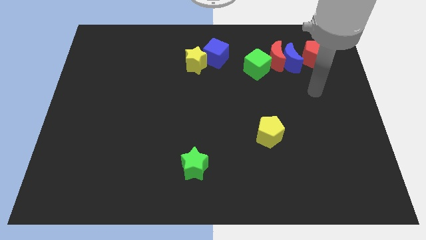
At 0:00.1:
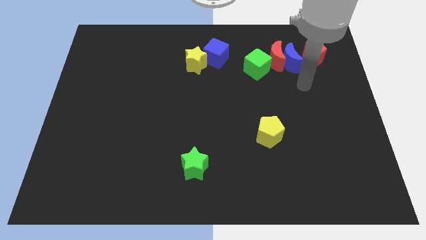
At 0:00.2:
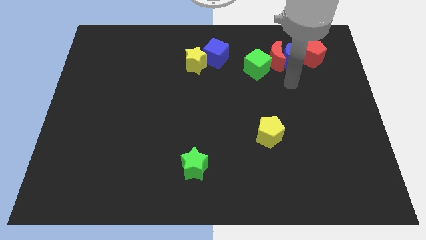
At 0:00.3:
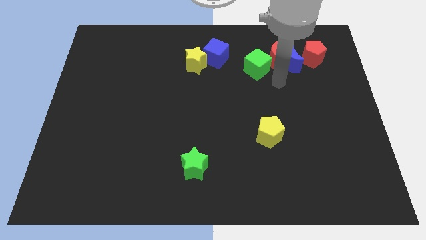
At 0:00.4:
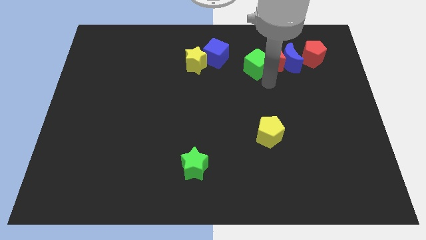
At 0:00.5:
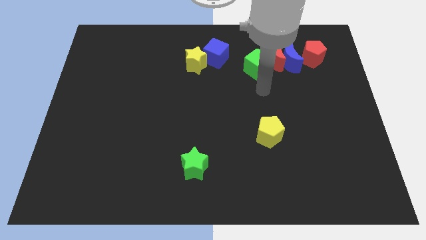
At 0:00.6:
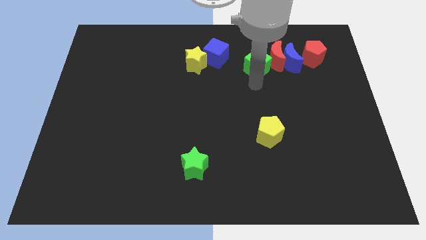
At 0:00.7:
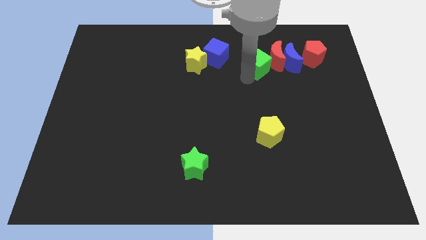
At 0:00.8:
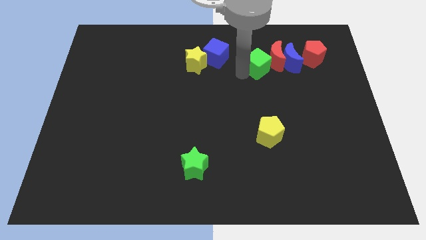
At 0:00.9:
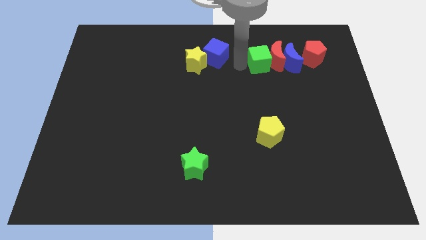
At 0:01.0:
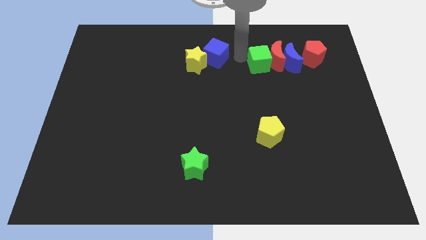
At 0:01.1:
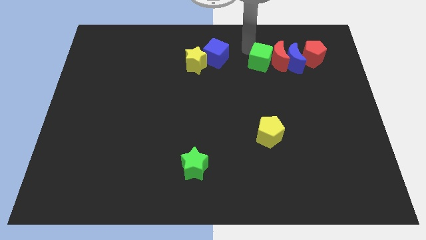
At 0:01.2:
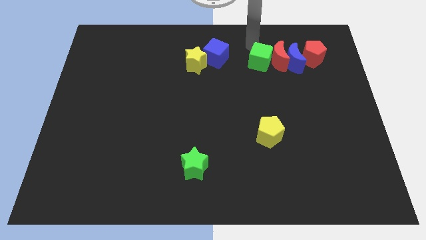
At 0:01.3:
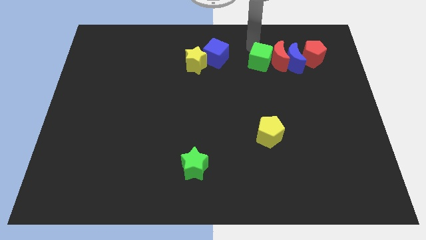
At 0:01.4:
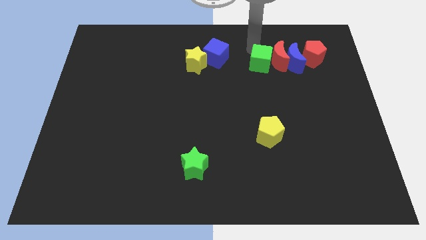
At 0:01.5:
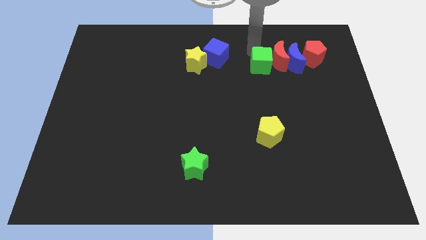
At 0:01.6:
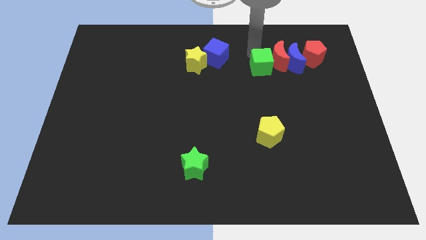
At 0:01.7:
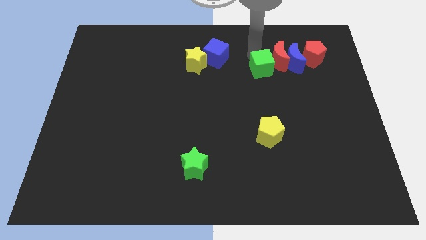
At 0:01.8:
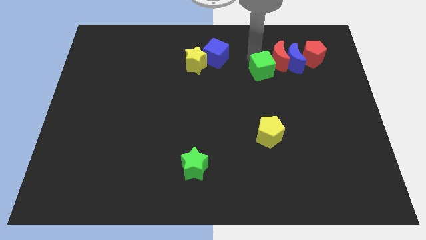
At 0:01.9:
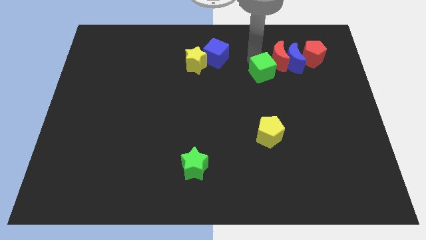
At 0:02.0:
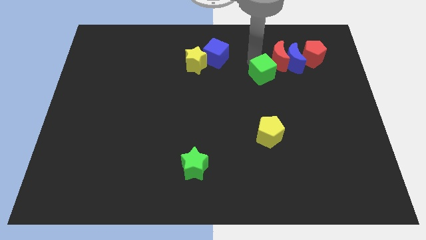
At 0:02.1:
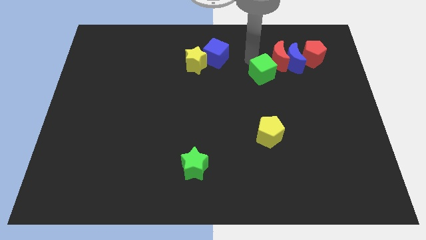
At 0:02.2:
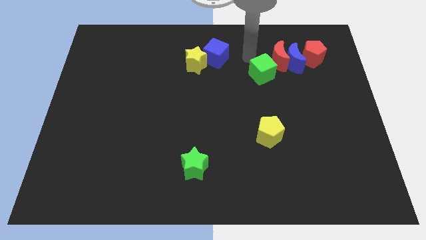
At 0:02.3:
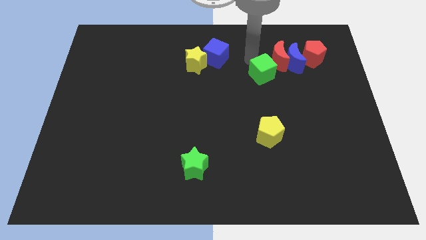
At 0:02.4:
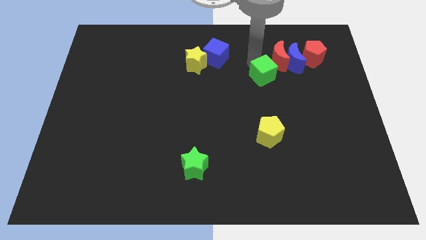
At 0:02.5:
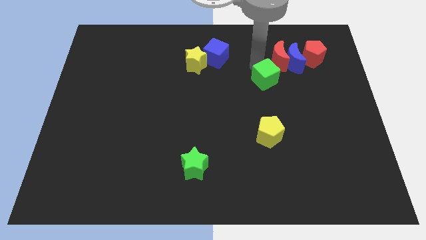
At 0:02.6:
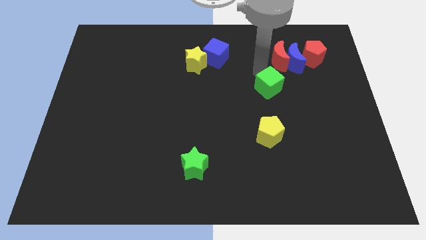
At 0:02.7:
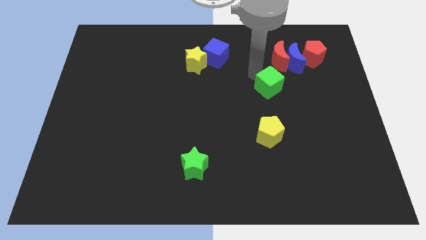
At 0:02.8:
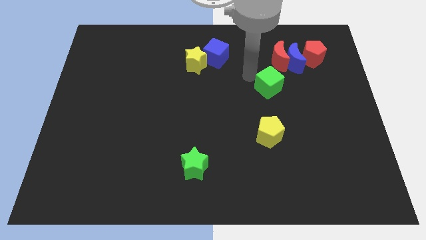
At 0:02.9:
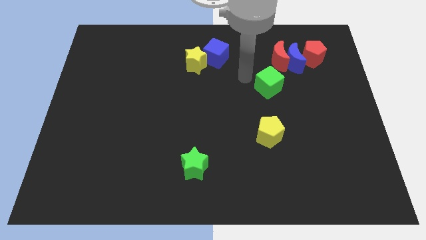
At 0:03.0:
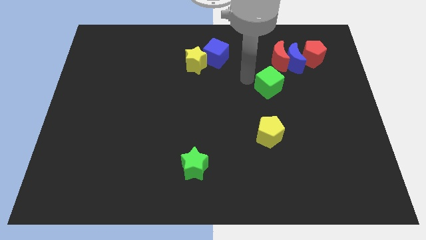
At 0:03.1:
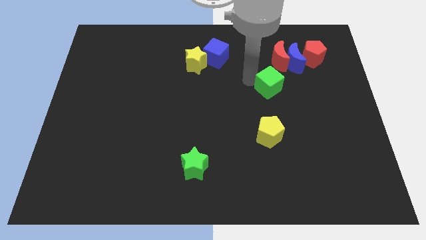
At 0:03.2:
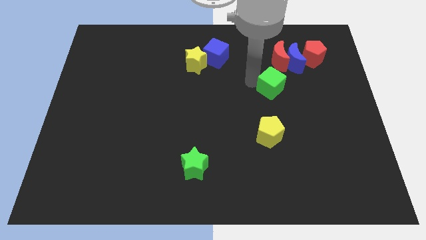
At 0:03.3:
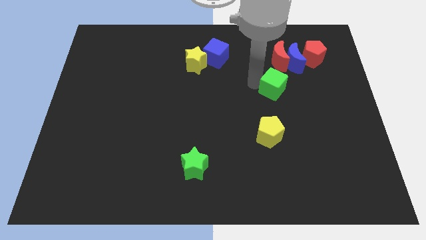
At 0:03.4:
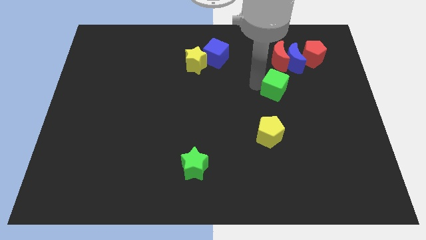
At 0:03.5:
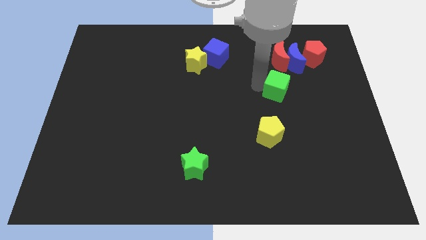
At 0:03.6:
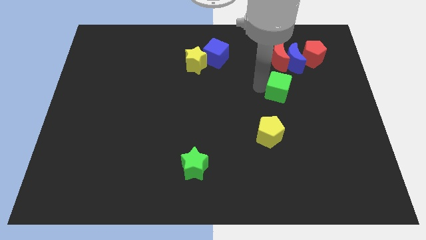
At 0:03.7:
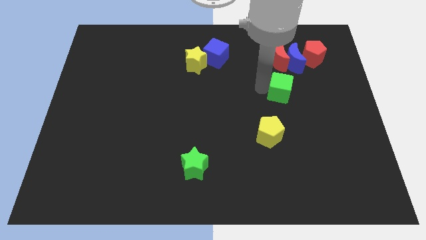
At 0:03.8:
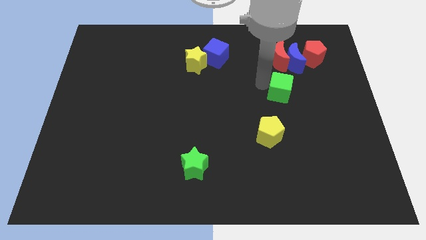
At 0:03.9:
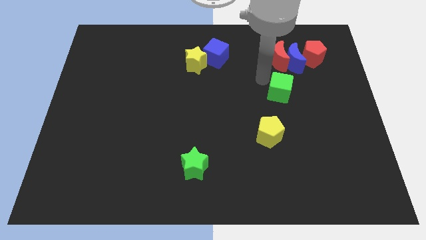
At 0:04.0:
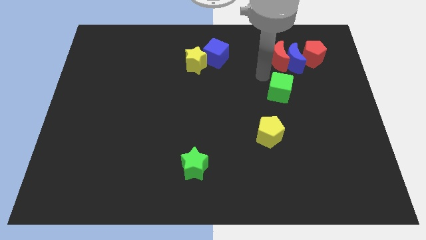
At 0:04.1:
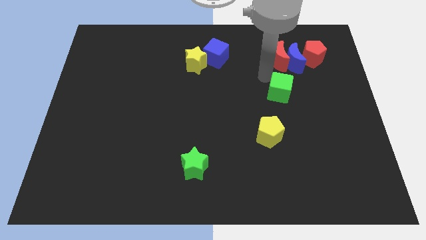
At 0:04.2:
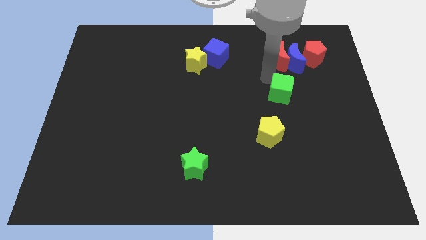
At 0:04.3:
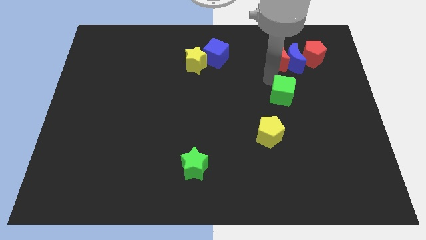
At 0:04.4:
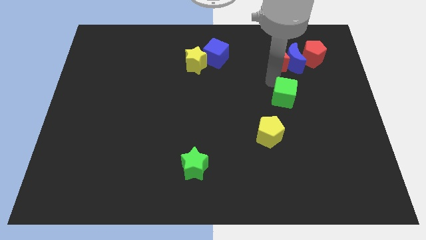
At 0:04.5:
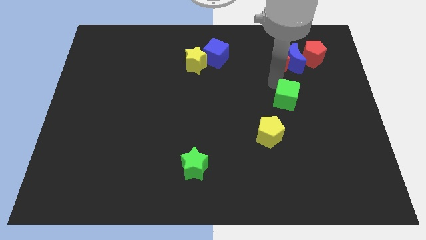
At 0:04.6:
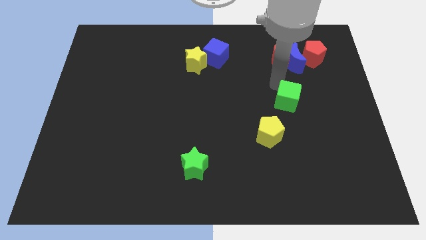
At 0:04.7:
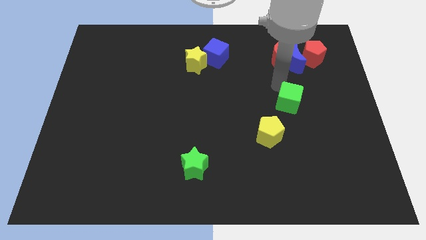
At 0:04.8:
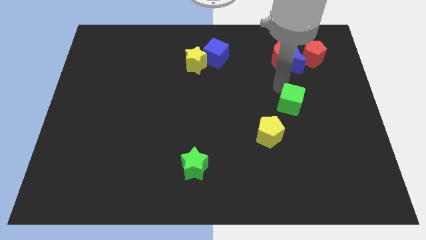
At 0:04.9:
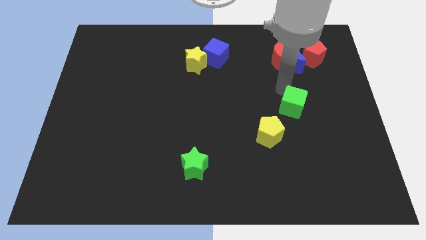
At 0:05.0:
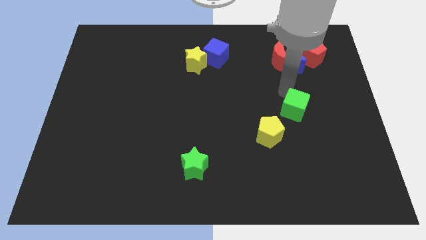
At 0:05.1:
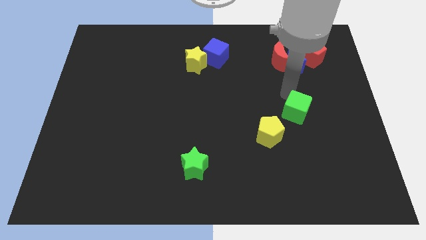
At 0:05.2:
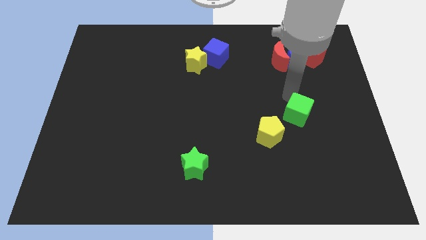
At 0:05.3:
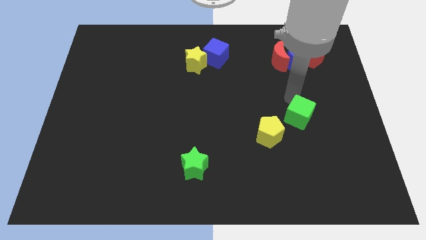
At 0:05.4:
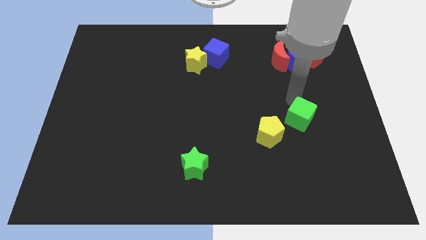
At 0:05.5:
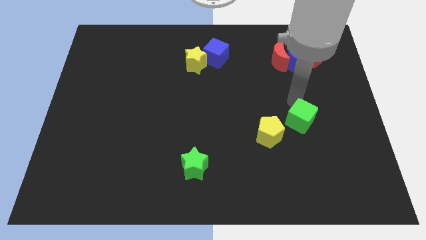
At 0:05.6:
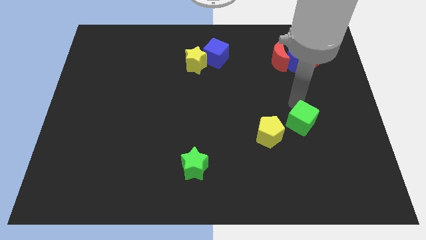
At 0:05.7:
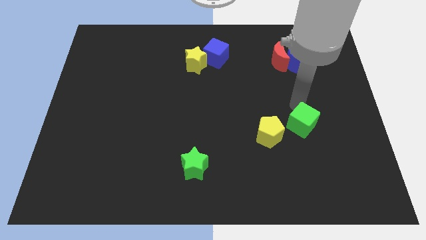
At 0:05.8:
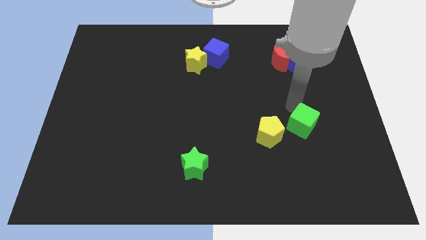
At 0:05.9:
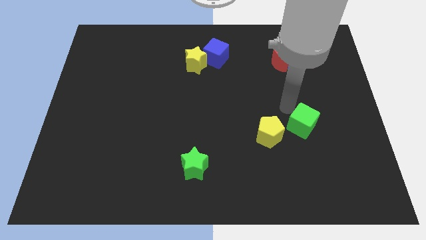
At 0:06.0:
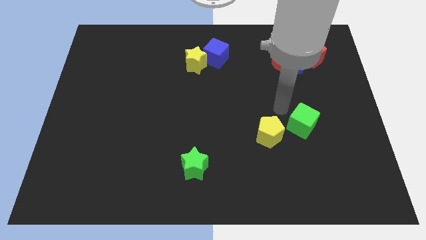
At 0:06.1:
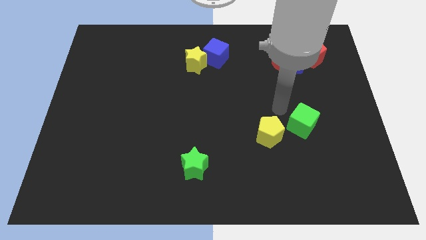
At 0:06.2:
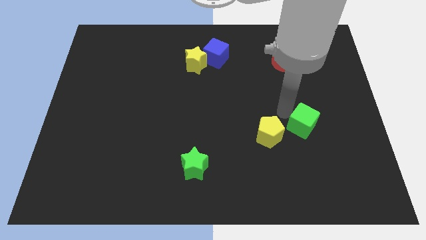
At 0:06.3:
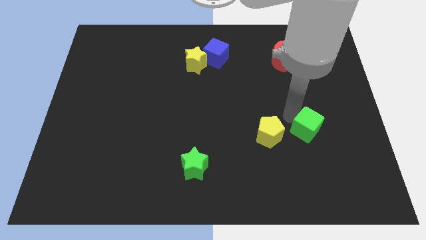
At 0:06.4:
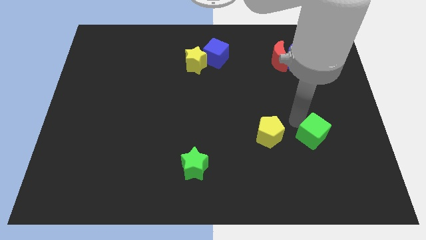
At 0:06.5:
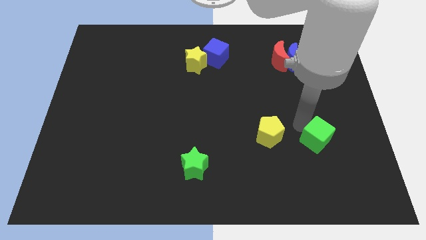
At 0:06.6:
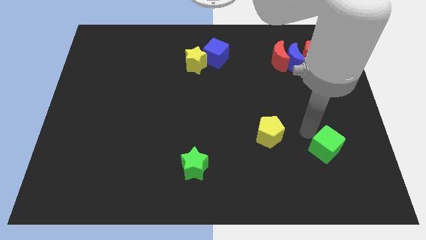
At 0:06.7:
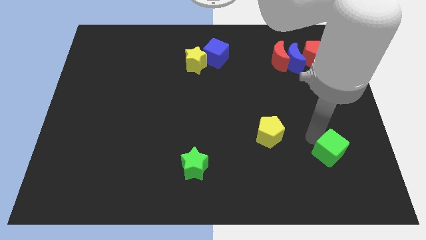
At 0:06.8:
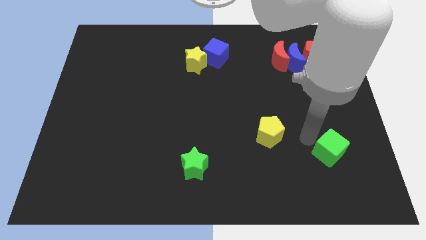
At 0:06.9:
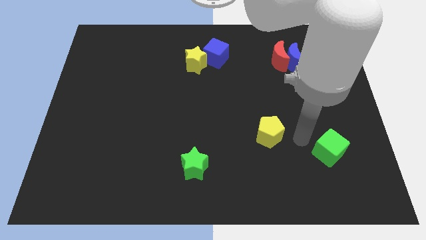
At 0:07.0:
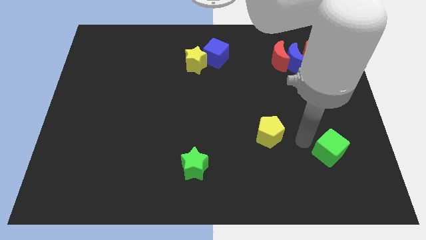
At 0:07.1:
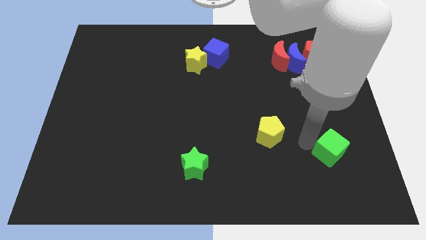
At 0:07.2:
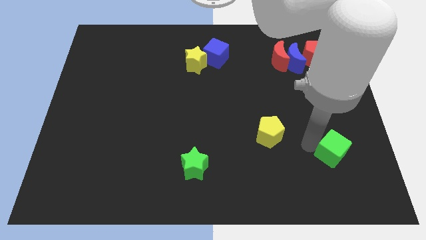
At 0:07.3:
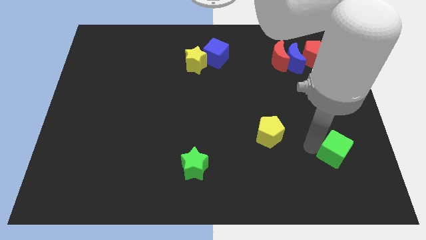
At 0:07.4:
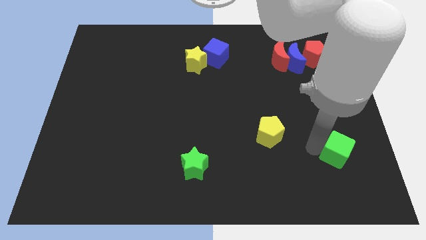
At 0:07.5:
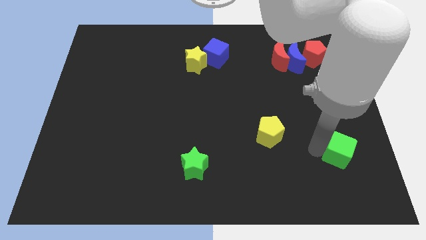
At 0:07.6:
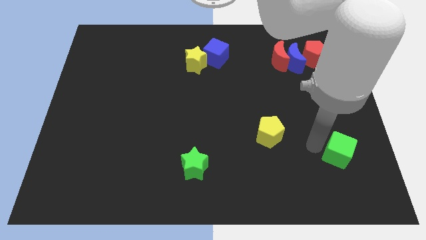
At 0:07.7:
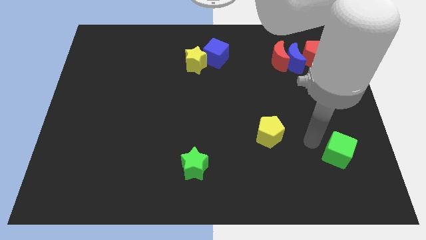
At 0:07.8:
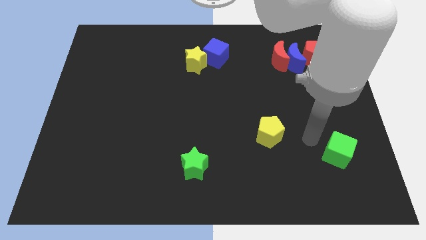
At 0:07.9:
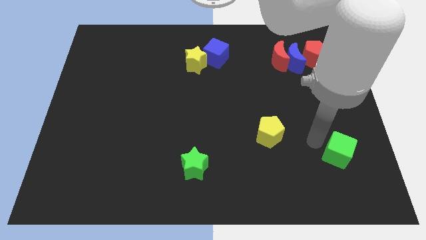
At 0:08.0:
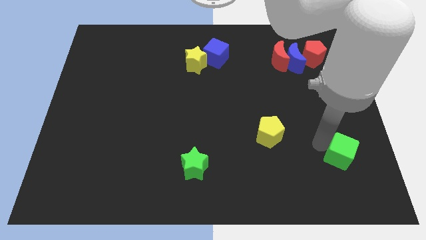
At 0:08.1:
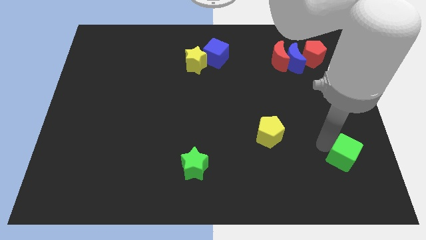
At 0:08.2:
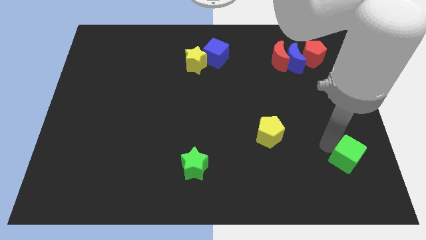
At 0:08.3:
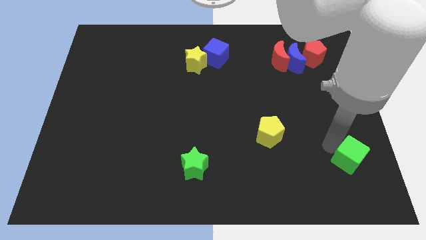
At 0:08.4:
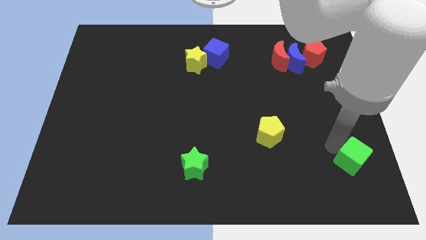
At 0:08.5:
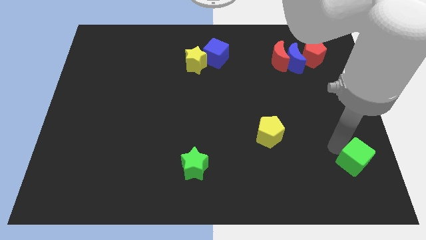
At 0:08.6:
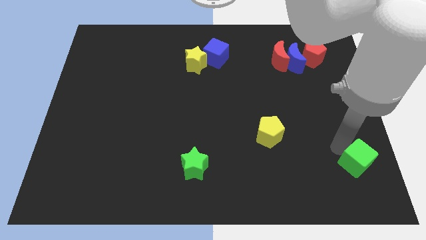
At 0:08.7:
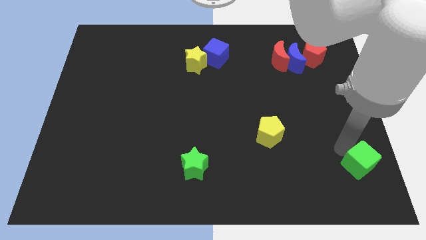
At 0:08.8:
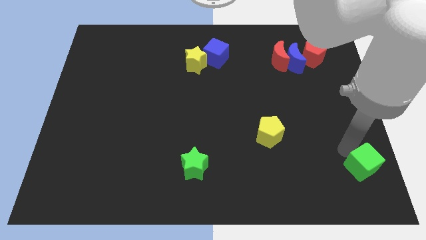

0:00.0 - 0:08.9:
slide the green cube to the bottom right corner
